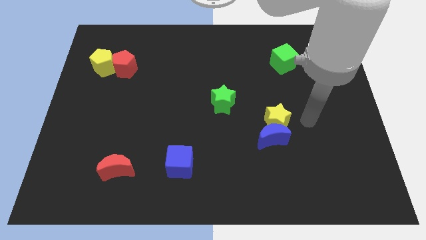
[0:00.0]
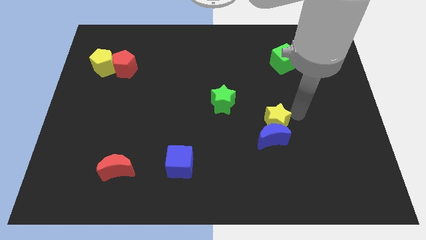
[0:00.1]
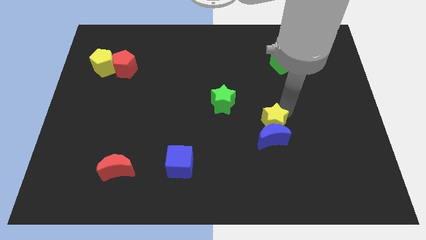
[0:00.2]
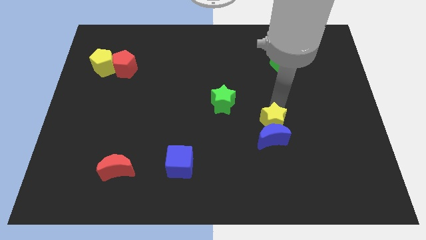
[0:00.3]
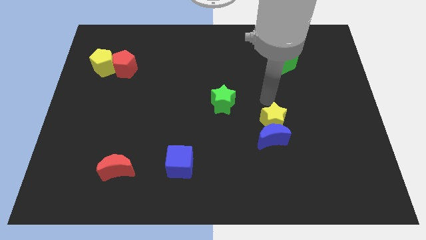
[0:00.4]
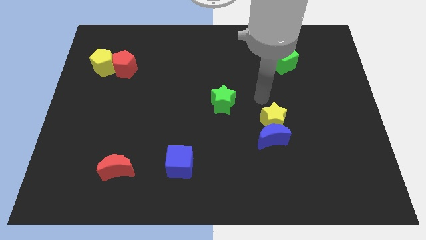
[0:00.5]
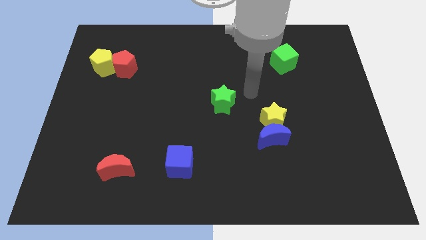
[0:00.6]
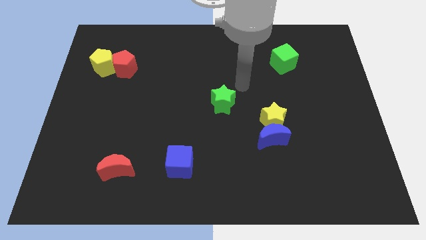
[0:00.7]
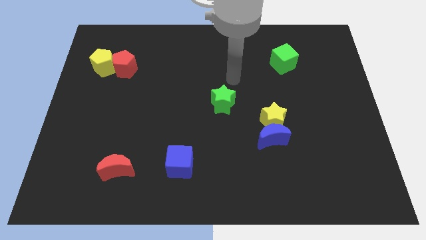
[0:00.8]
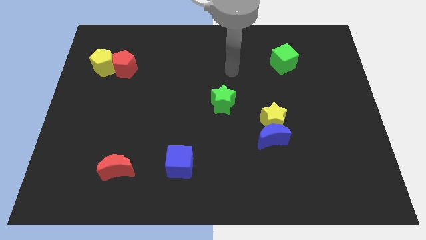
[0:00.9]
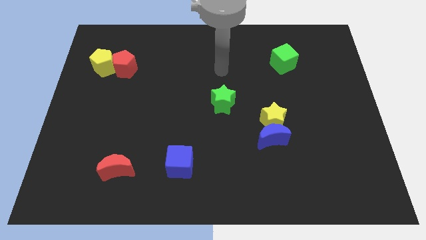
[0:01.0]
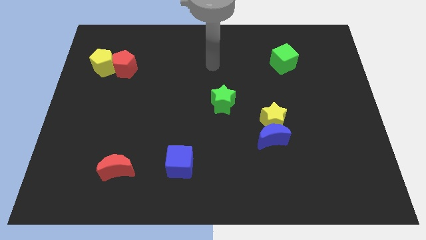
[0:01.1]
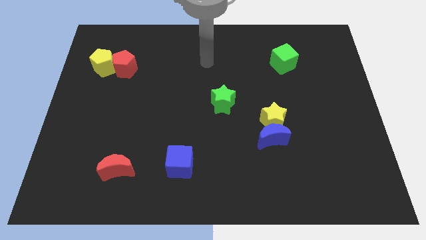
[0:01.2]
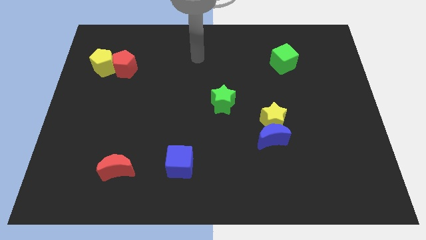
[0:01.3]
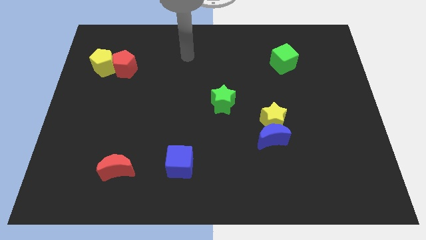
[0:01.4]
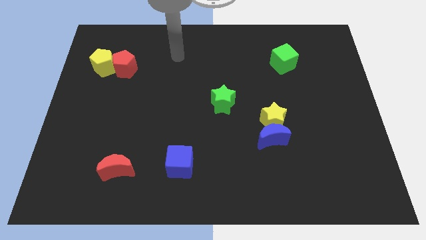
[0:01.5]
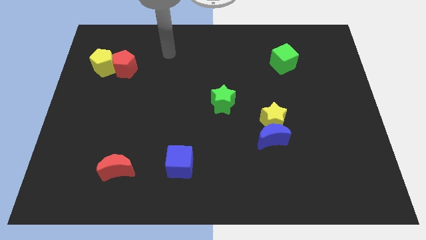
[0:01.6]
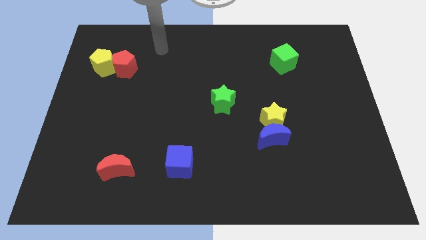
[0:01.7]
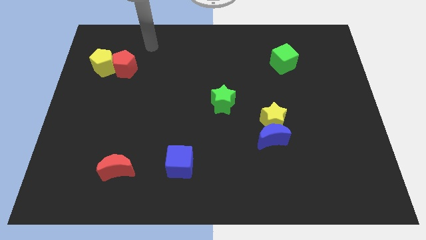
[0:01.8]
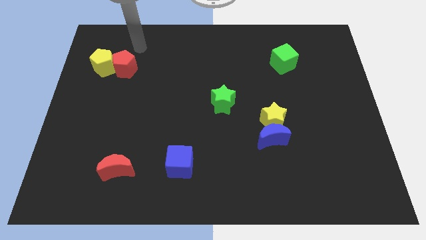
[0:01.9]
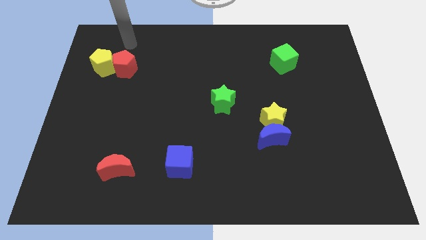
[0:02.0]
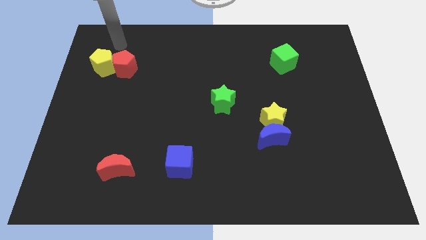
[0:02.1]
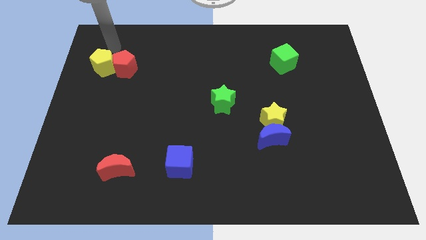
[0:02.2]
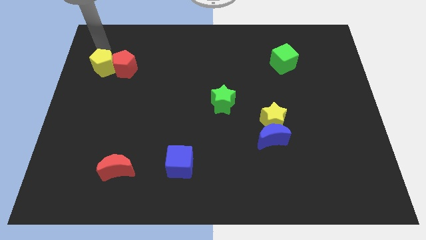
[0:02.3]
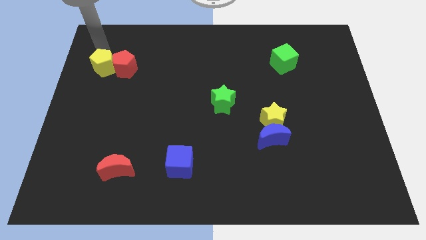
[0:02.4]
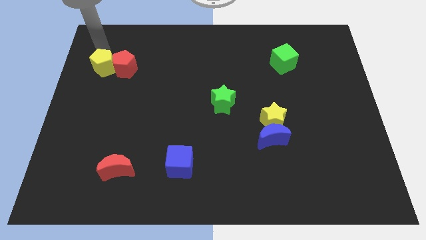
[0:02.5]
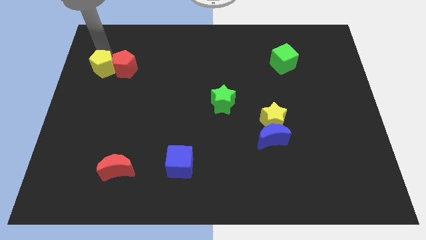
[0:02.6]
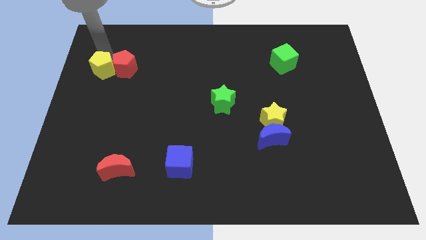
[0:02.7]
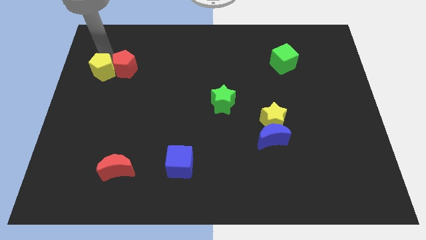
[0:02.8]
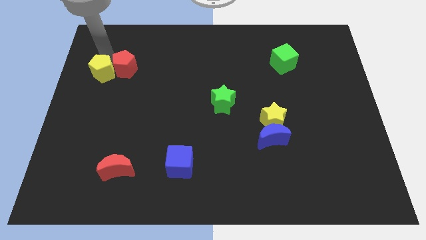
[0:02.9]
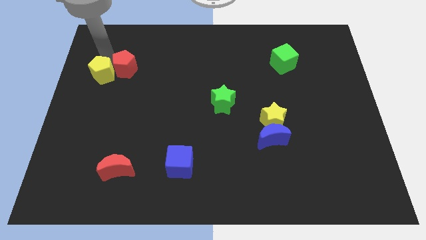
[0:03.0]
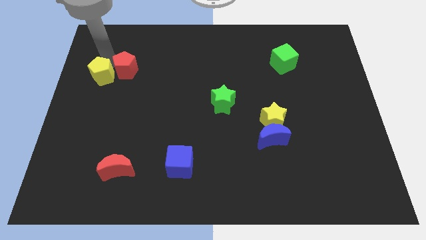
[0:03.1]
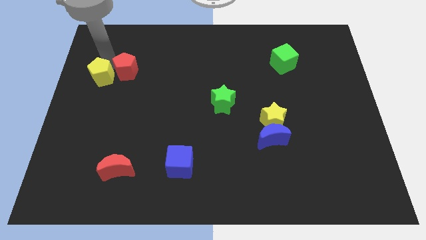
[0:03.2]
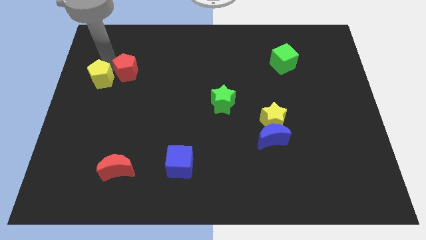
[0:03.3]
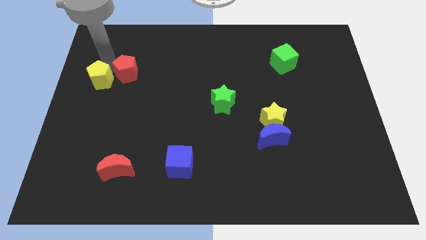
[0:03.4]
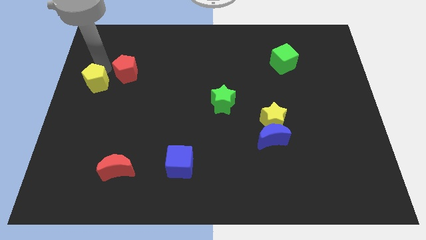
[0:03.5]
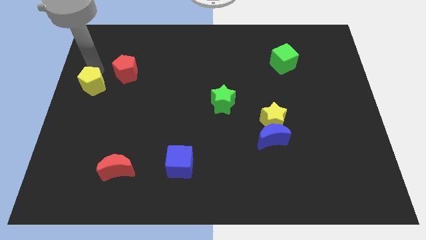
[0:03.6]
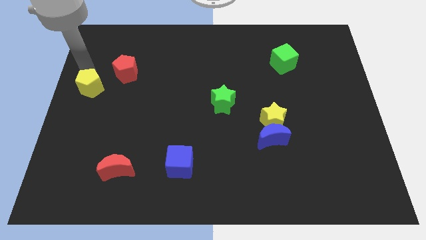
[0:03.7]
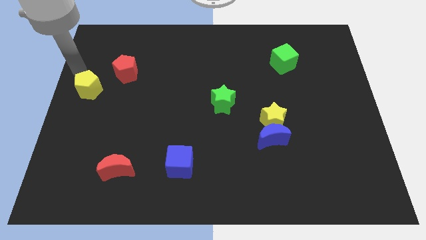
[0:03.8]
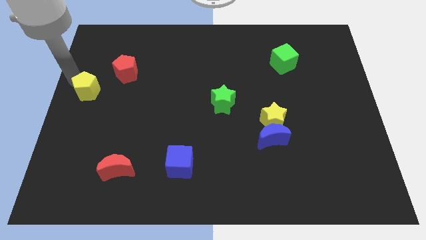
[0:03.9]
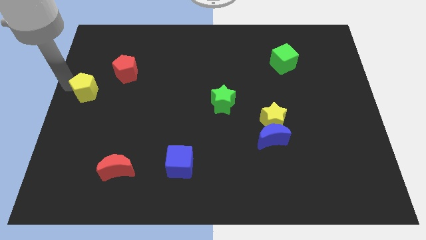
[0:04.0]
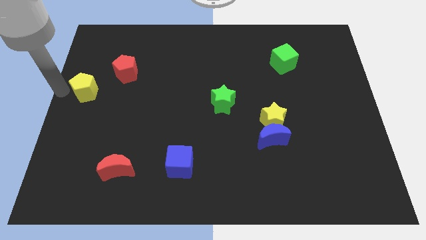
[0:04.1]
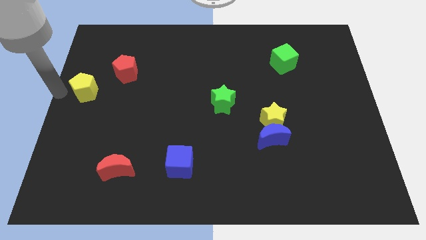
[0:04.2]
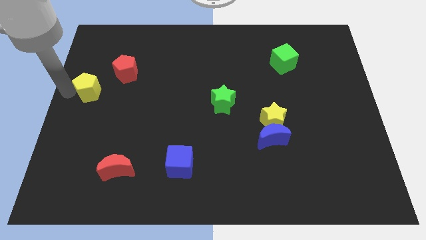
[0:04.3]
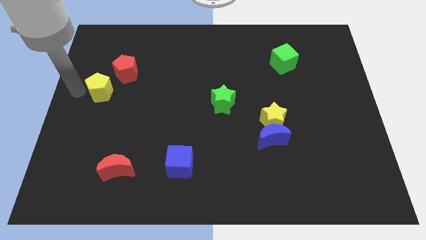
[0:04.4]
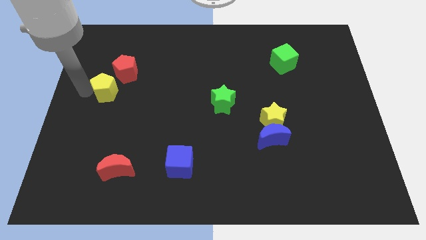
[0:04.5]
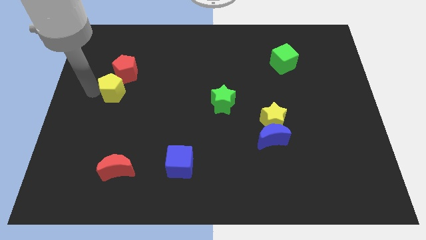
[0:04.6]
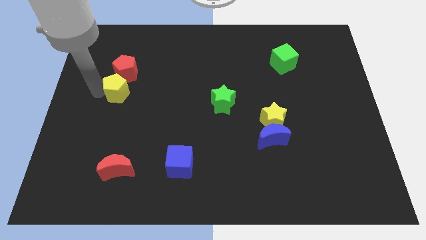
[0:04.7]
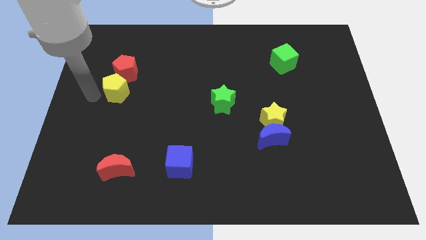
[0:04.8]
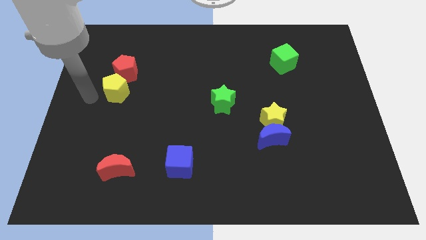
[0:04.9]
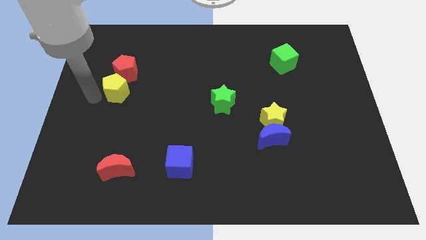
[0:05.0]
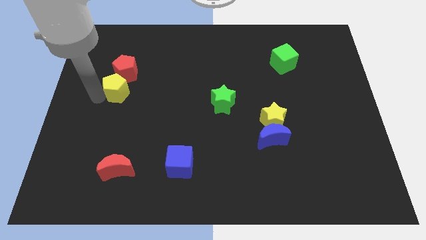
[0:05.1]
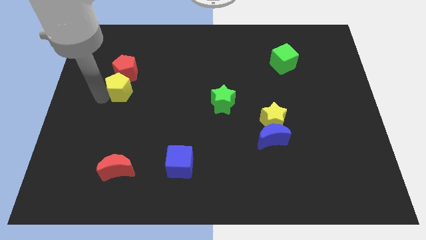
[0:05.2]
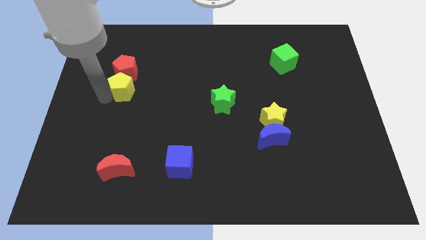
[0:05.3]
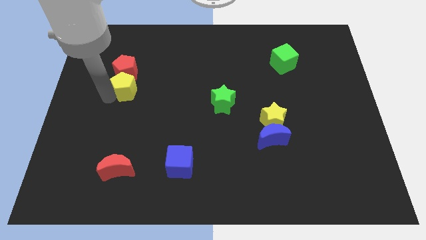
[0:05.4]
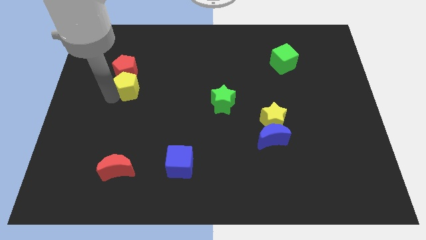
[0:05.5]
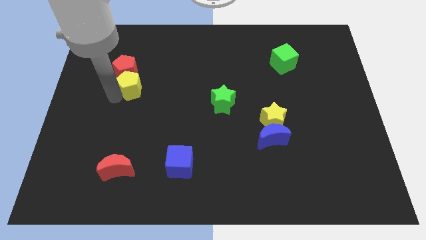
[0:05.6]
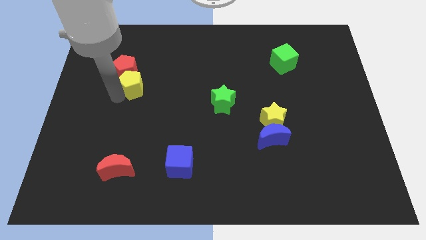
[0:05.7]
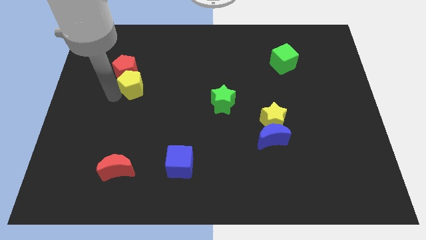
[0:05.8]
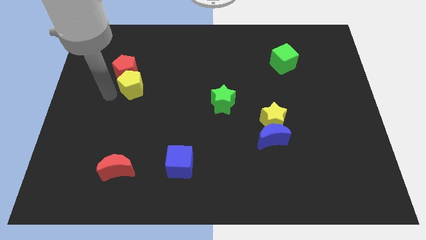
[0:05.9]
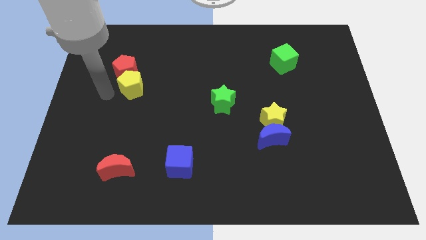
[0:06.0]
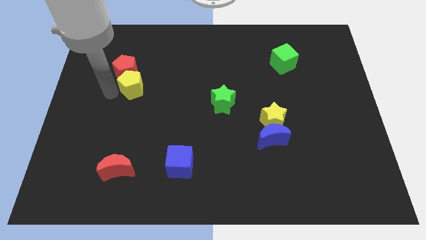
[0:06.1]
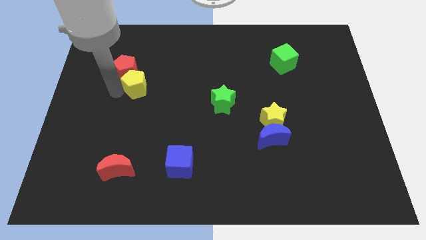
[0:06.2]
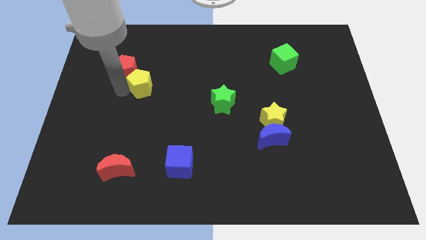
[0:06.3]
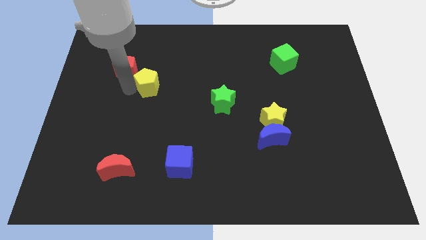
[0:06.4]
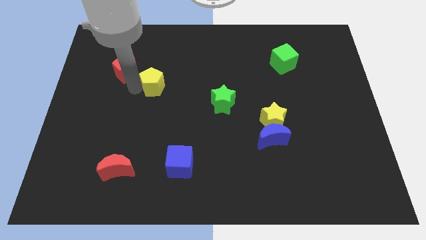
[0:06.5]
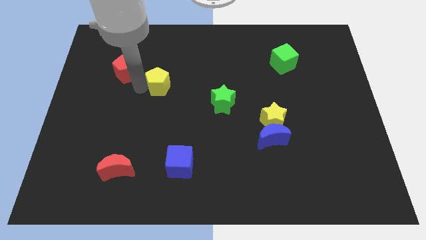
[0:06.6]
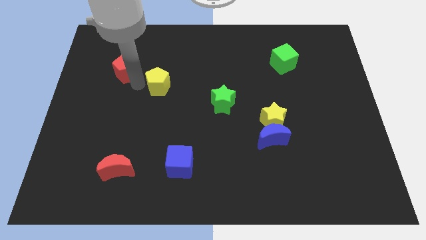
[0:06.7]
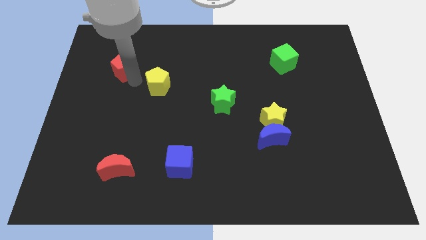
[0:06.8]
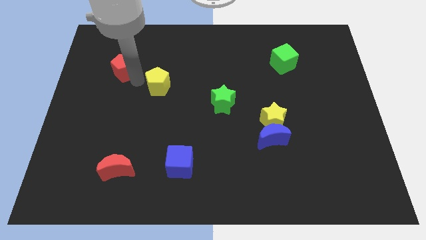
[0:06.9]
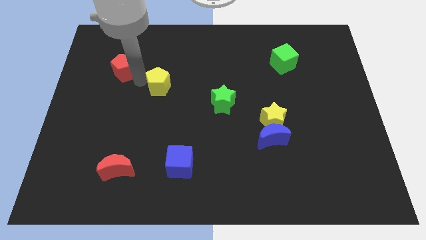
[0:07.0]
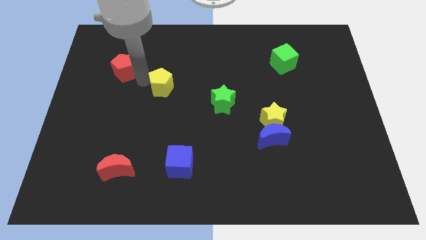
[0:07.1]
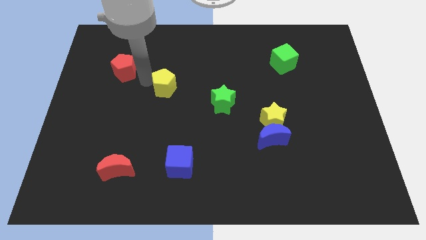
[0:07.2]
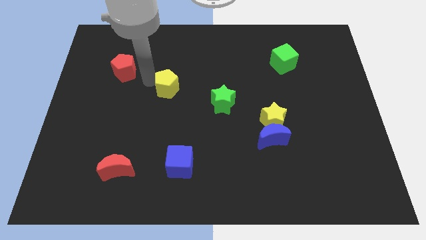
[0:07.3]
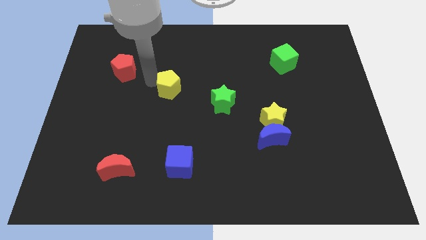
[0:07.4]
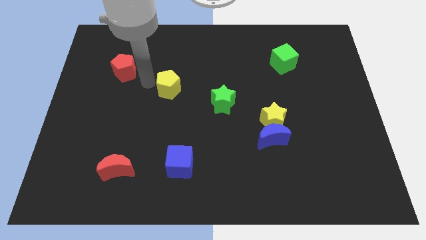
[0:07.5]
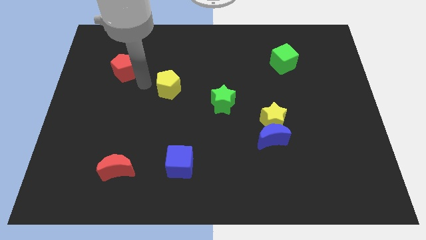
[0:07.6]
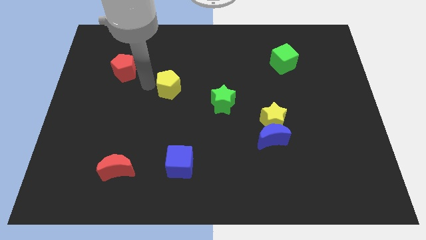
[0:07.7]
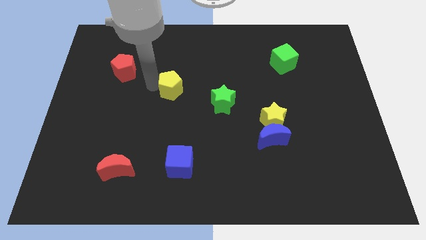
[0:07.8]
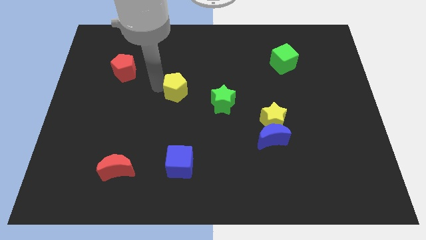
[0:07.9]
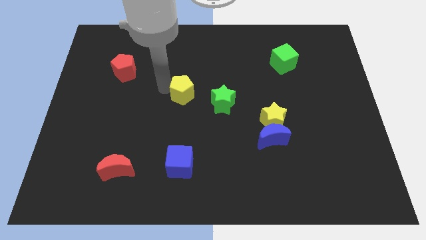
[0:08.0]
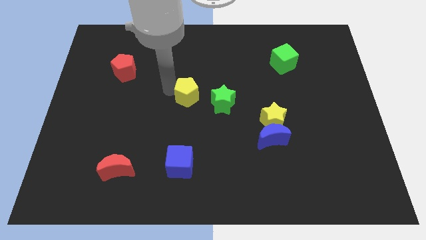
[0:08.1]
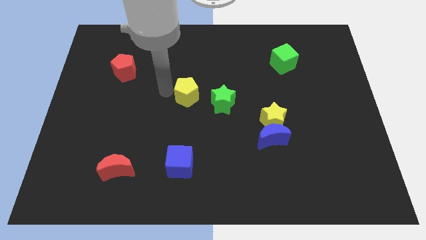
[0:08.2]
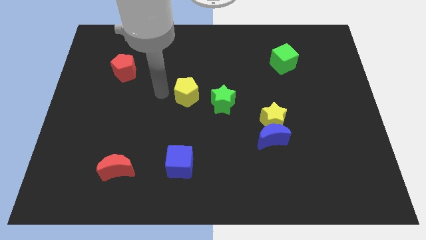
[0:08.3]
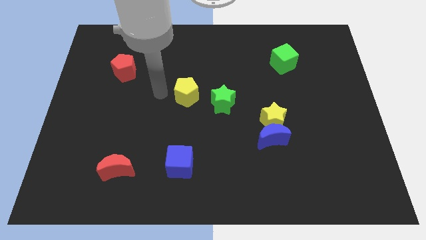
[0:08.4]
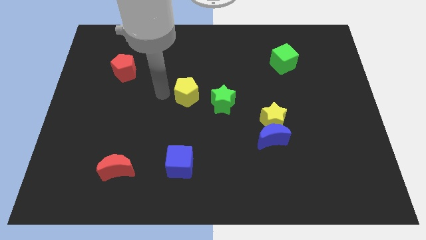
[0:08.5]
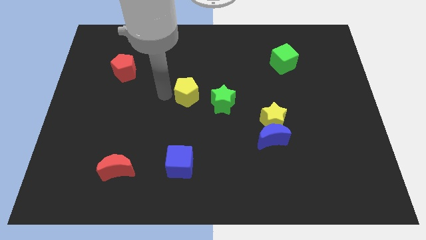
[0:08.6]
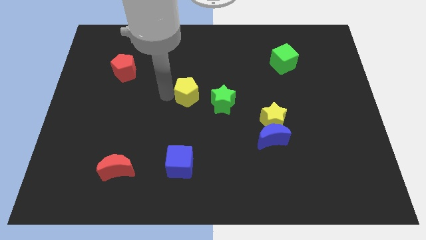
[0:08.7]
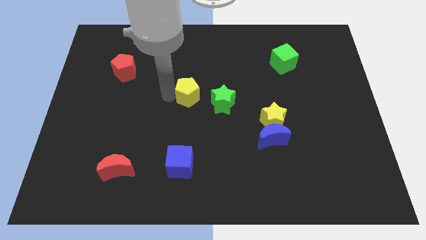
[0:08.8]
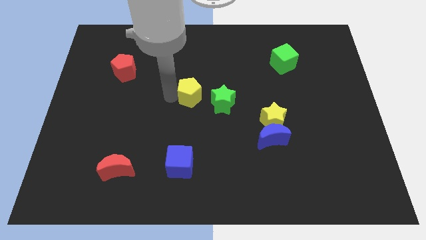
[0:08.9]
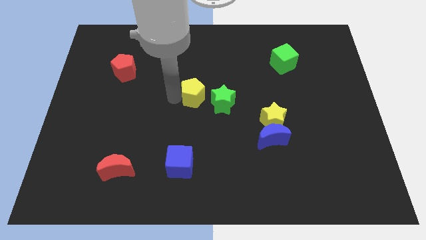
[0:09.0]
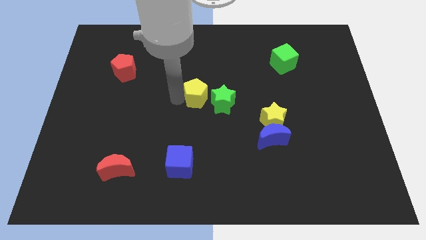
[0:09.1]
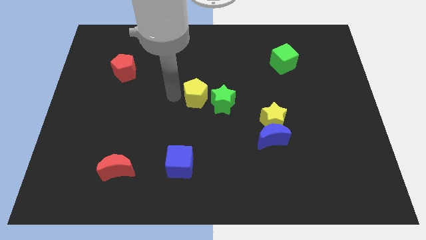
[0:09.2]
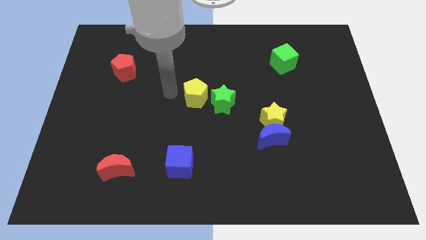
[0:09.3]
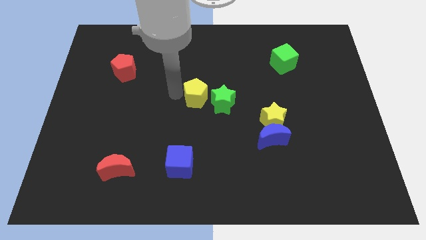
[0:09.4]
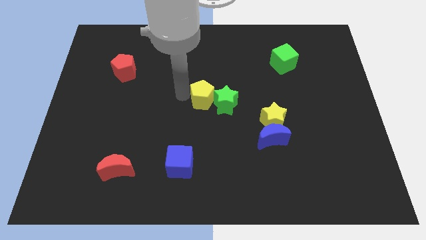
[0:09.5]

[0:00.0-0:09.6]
move the yellow pentagon to the green star
